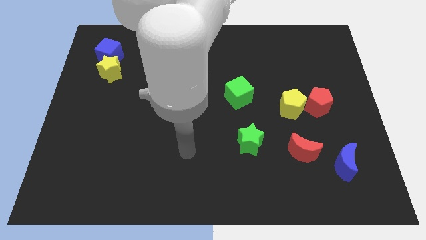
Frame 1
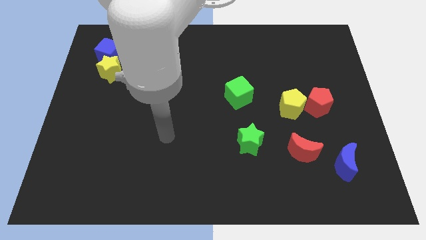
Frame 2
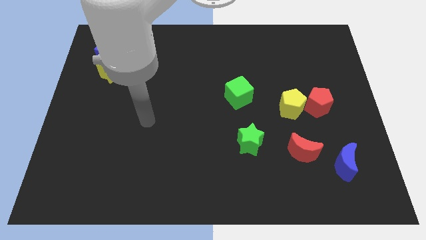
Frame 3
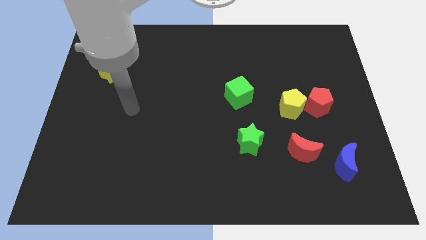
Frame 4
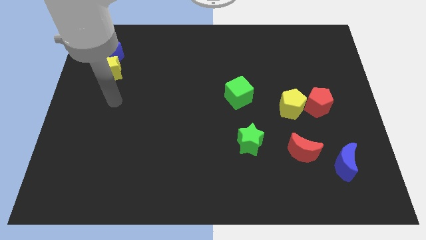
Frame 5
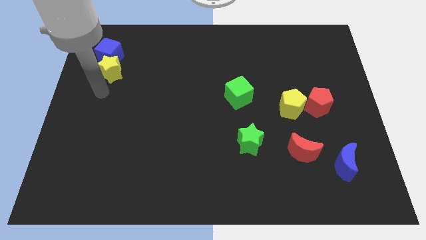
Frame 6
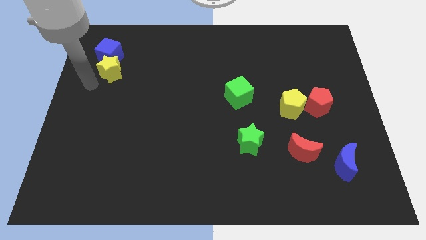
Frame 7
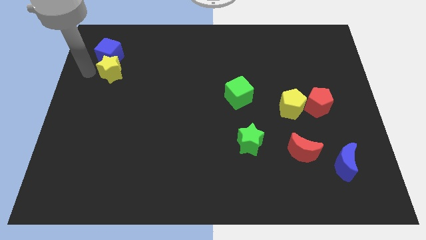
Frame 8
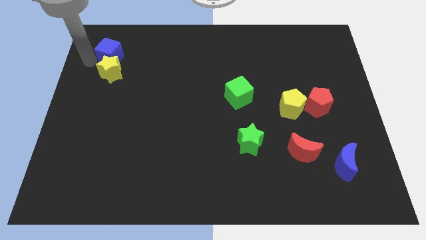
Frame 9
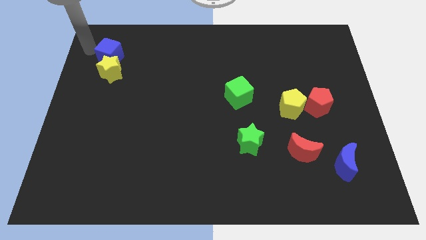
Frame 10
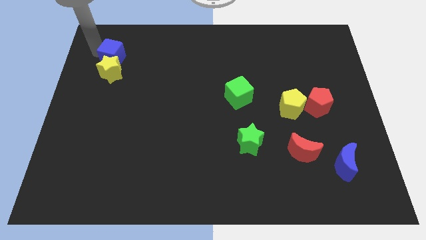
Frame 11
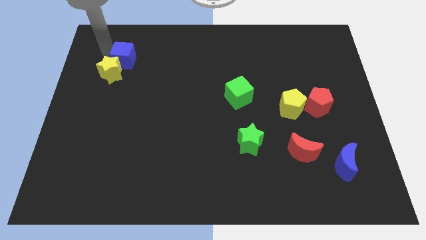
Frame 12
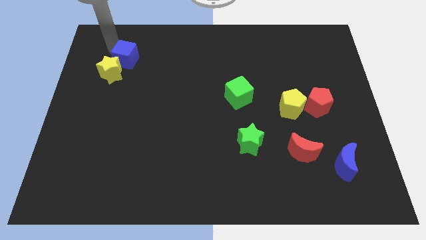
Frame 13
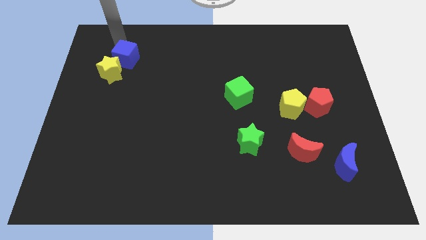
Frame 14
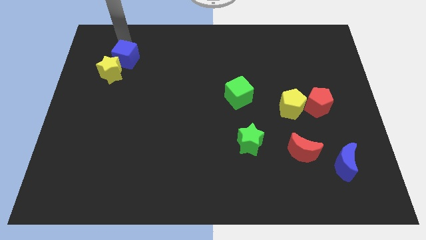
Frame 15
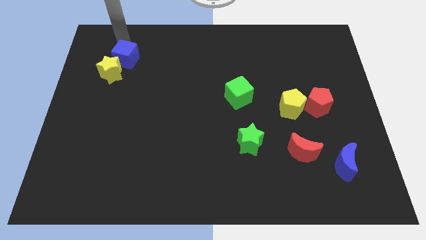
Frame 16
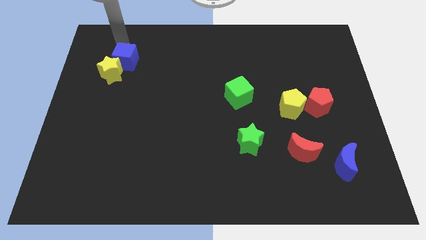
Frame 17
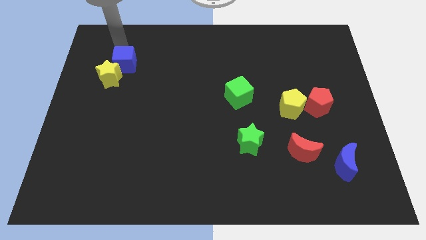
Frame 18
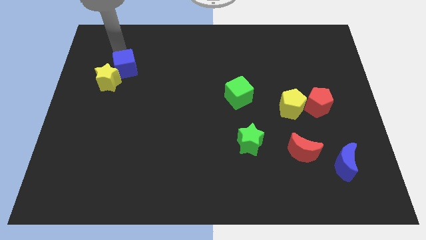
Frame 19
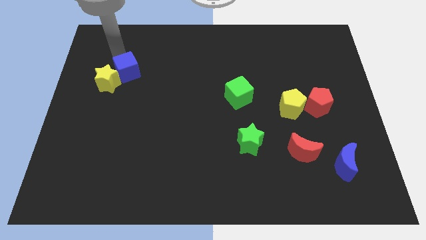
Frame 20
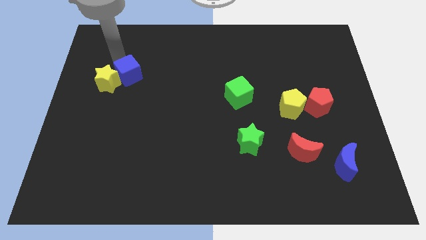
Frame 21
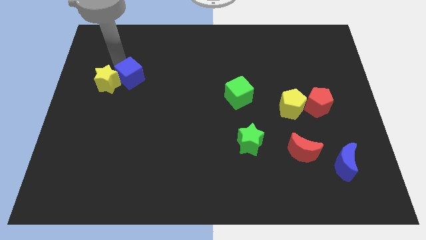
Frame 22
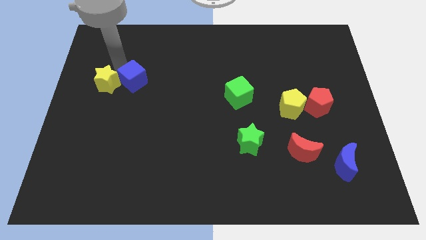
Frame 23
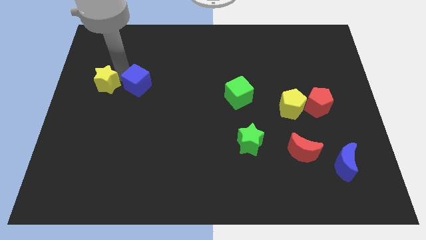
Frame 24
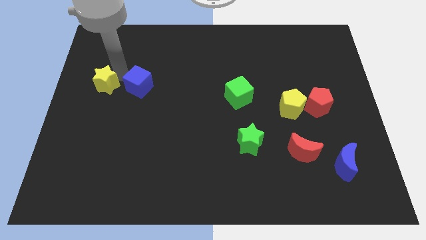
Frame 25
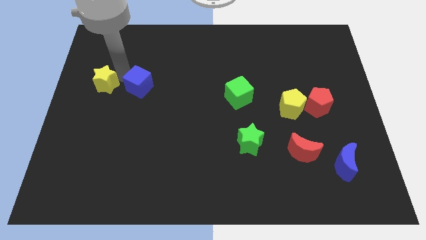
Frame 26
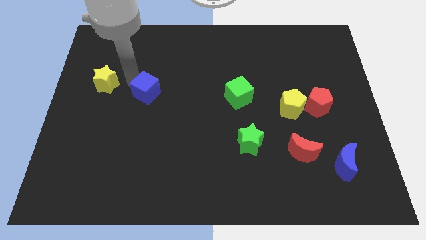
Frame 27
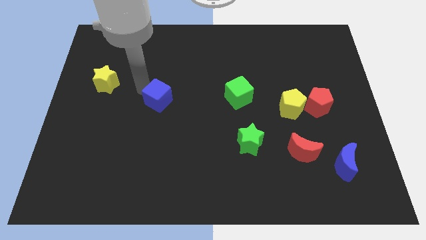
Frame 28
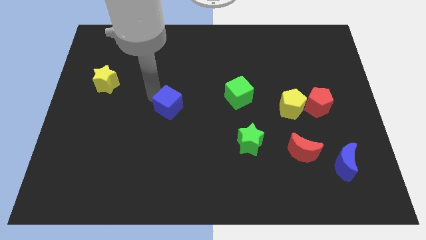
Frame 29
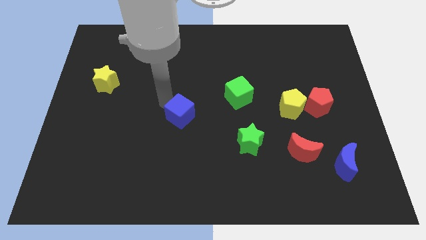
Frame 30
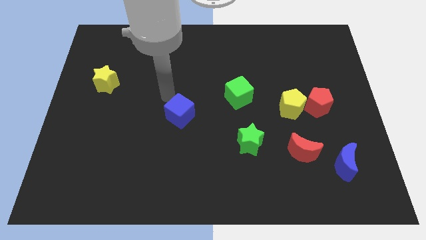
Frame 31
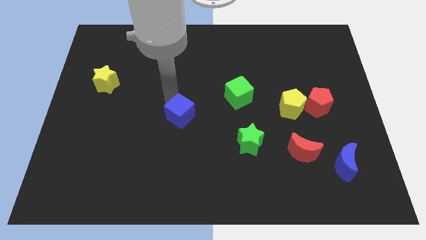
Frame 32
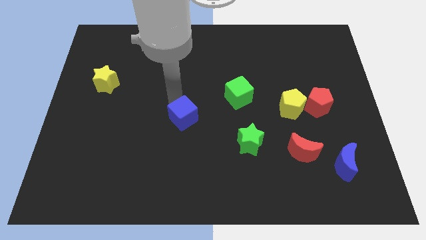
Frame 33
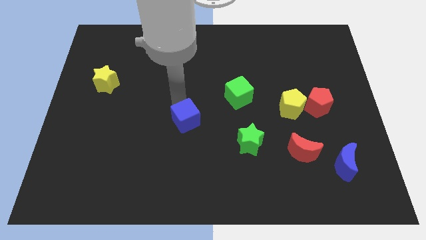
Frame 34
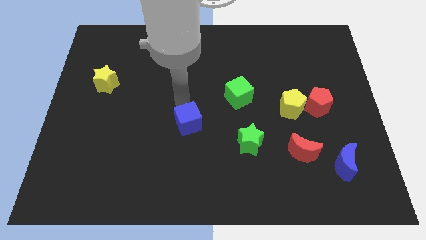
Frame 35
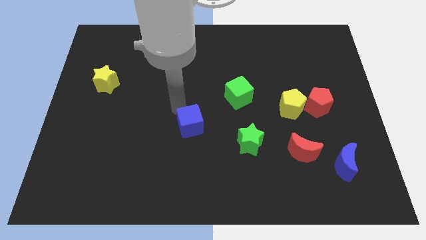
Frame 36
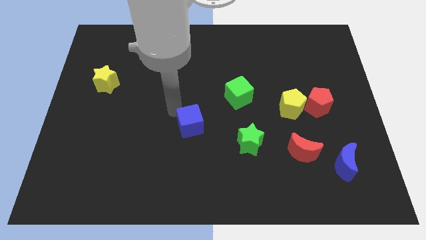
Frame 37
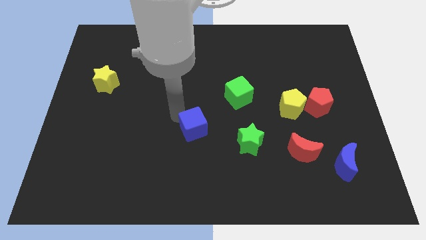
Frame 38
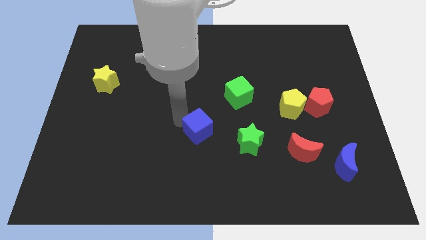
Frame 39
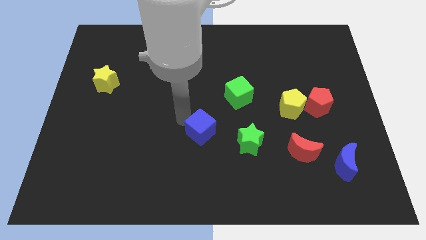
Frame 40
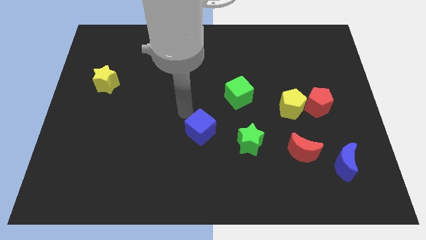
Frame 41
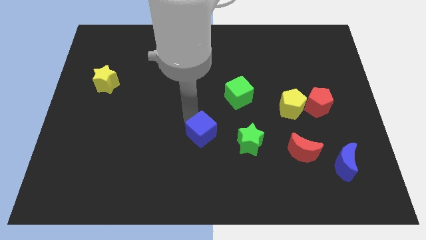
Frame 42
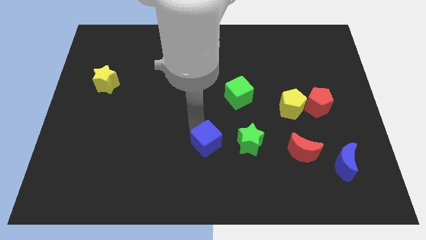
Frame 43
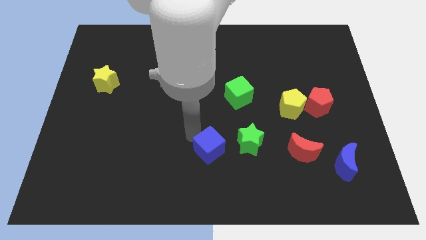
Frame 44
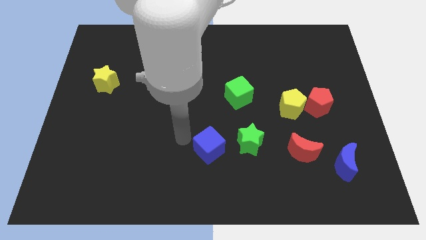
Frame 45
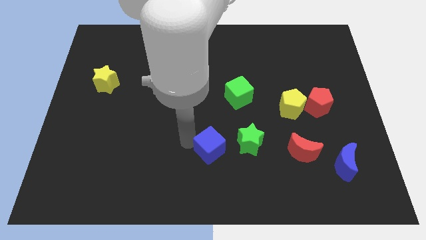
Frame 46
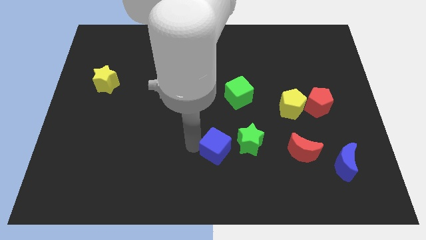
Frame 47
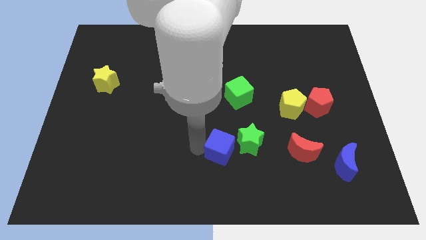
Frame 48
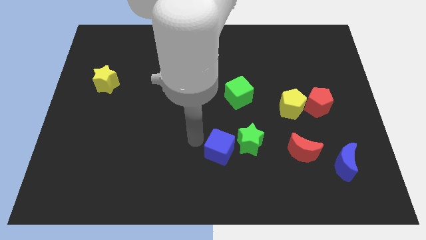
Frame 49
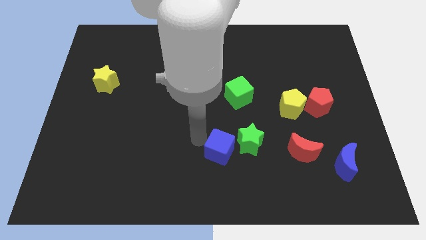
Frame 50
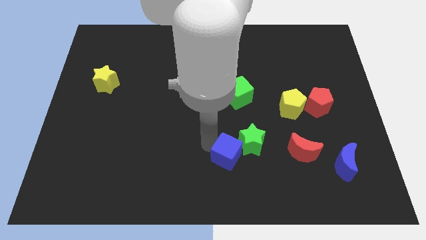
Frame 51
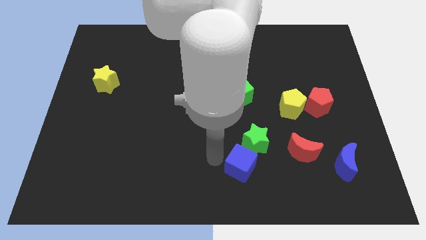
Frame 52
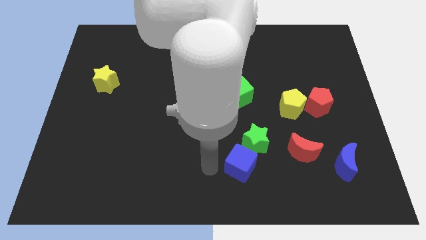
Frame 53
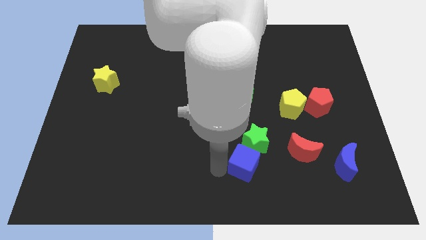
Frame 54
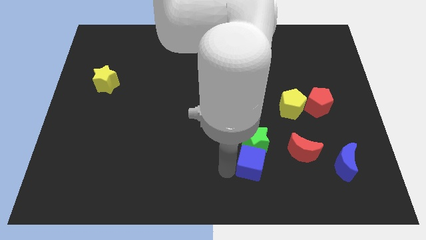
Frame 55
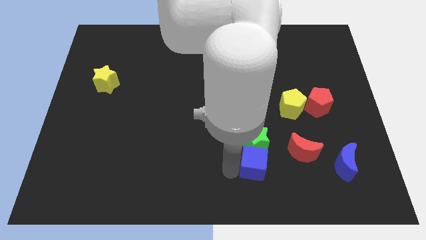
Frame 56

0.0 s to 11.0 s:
push the blue cube to the bottom right side of the green star

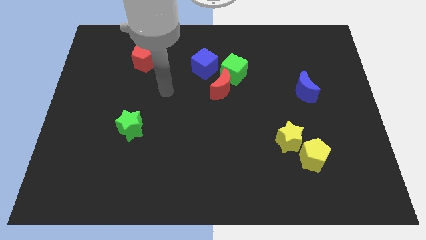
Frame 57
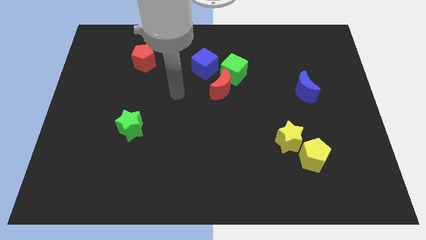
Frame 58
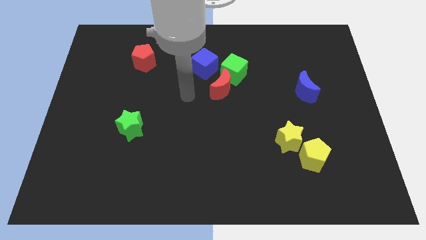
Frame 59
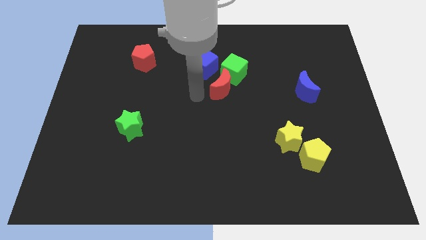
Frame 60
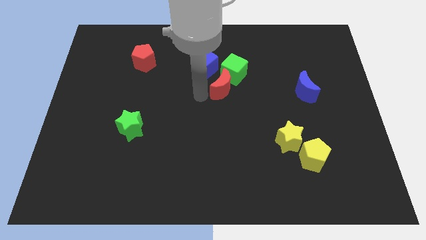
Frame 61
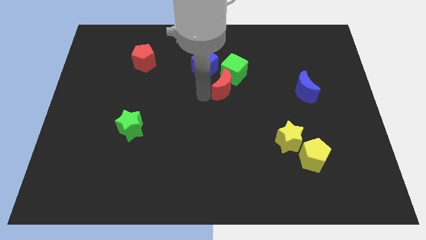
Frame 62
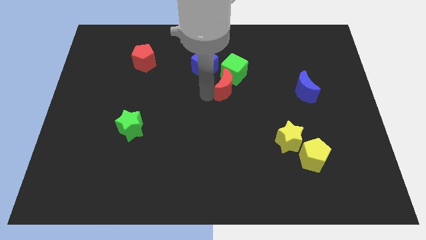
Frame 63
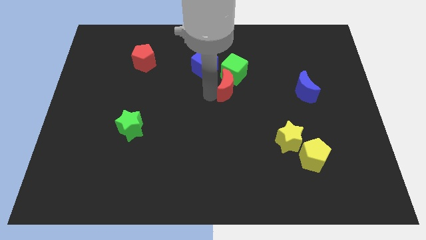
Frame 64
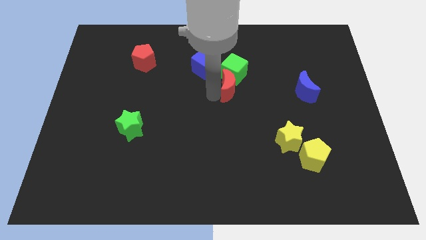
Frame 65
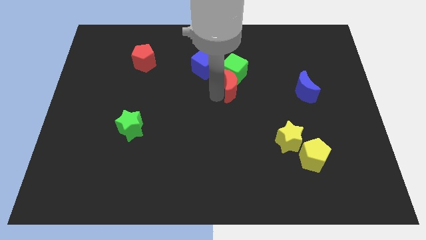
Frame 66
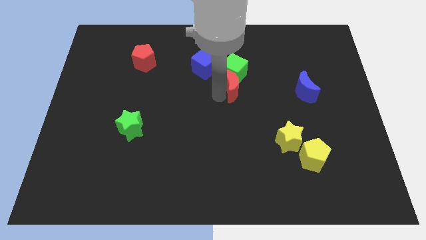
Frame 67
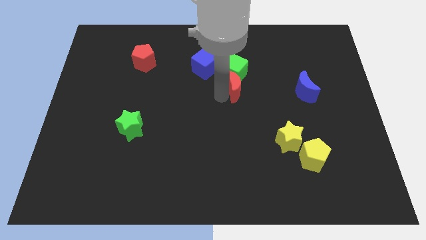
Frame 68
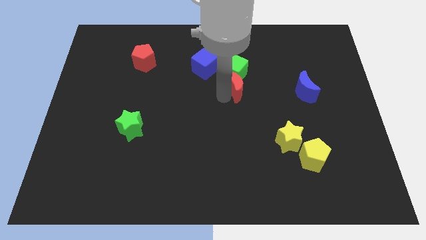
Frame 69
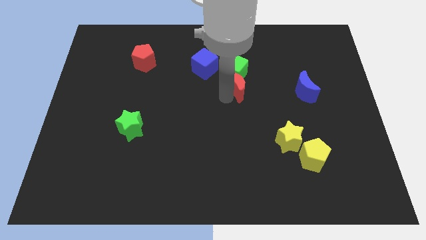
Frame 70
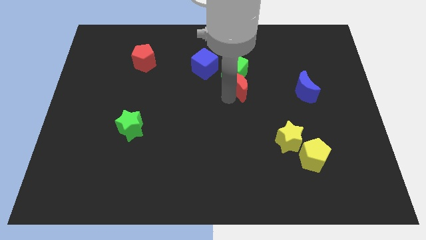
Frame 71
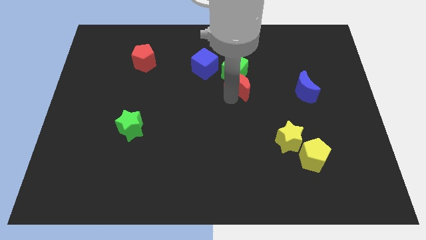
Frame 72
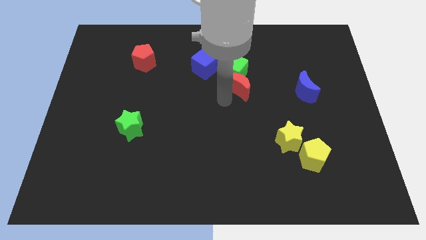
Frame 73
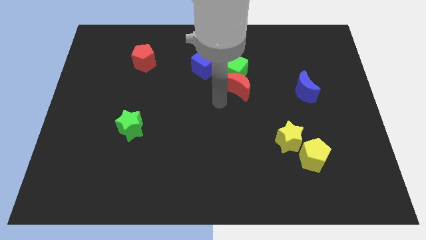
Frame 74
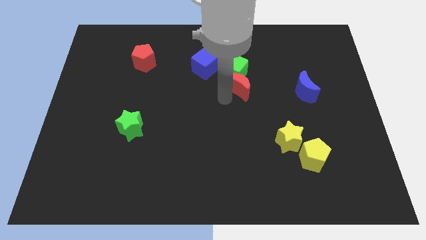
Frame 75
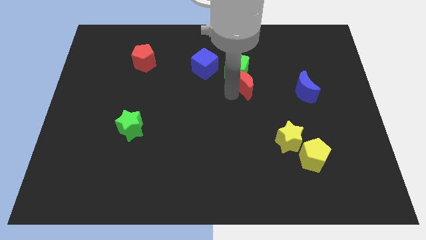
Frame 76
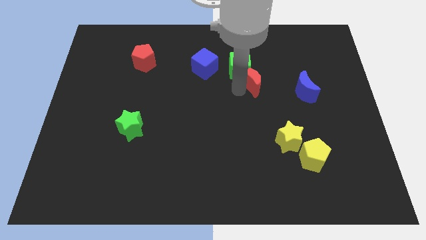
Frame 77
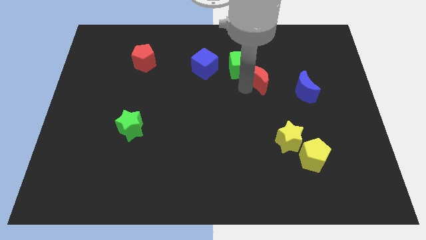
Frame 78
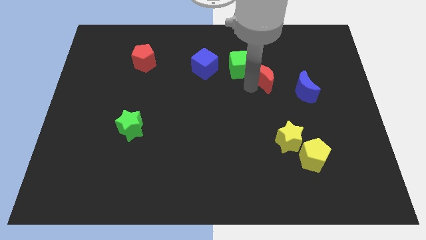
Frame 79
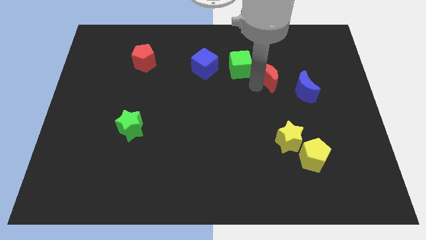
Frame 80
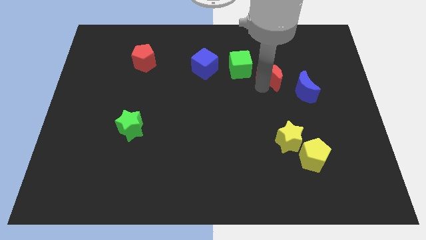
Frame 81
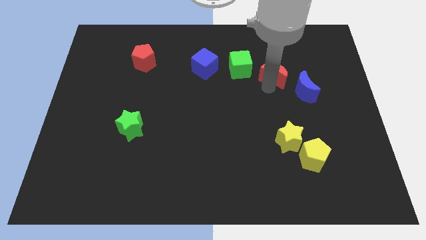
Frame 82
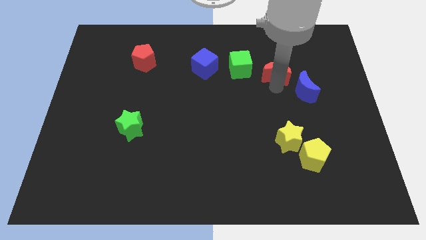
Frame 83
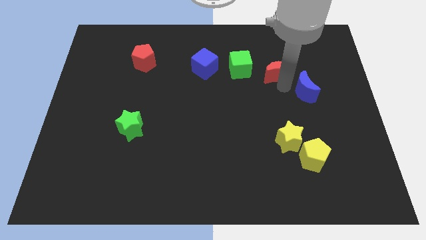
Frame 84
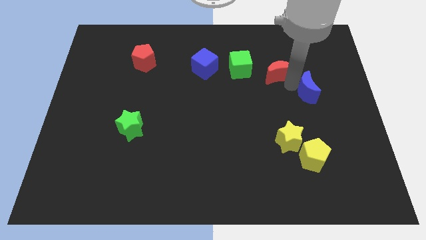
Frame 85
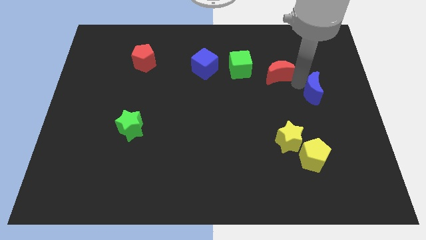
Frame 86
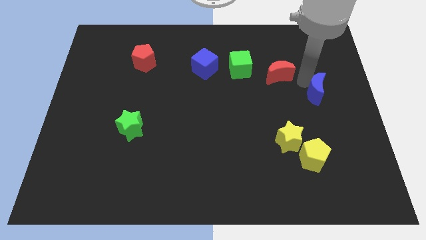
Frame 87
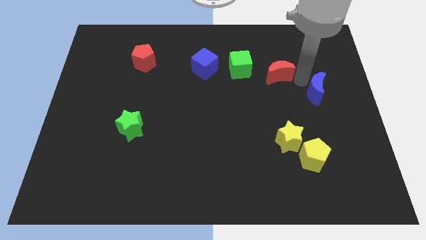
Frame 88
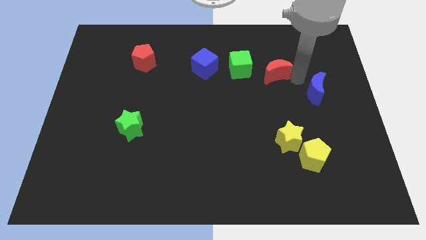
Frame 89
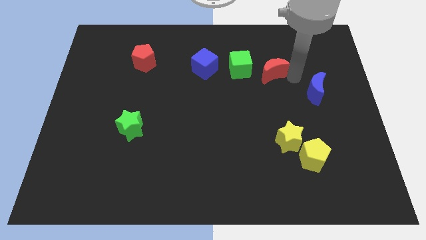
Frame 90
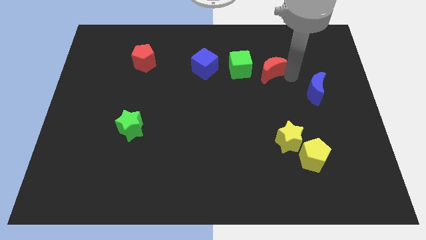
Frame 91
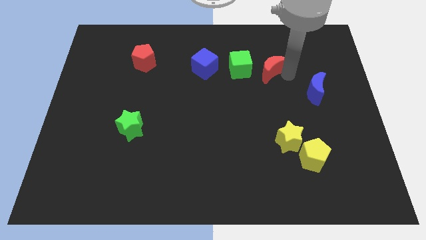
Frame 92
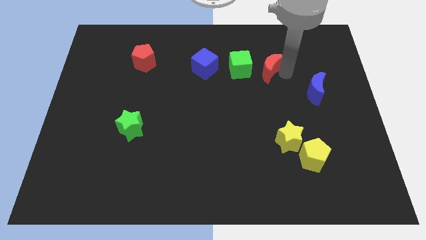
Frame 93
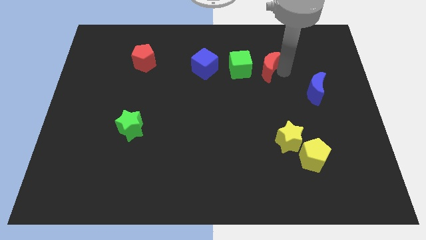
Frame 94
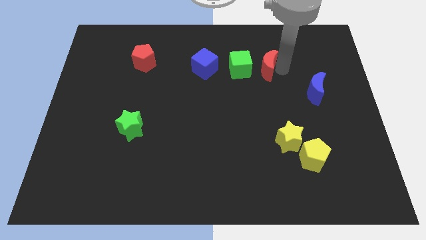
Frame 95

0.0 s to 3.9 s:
put the red moon to the right of the blue cube
